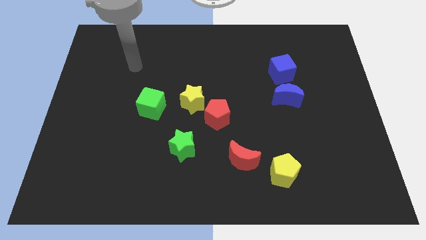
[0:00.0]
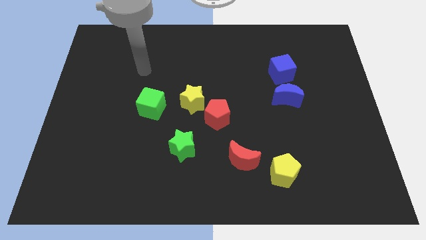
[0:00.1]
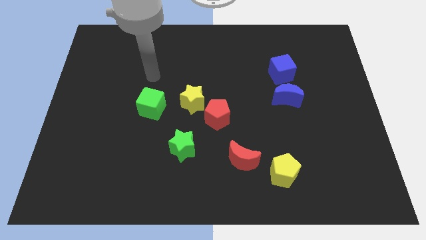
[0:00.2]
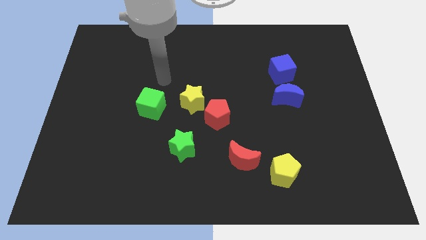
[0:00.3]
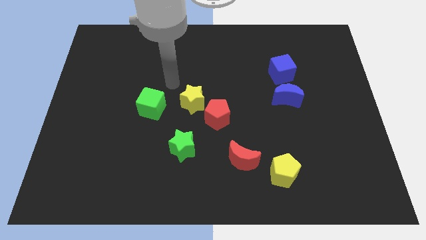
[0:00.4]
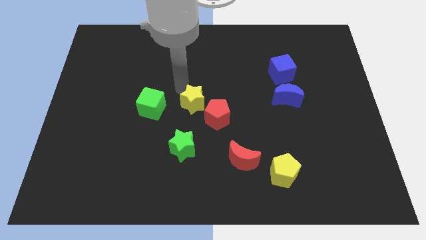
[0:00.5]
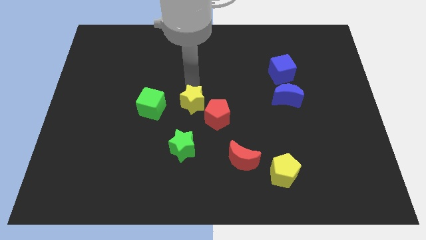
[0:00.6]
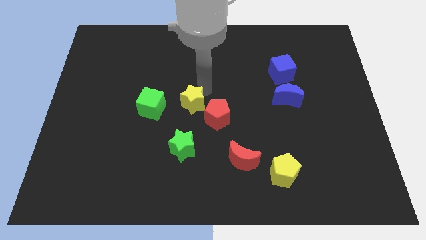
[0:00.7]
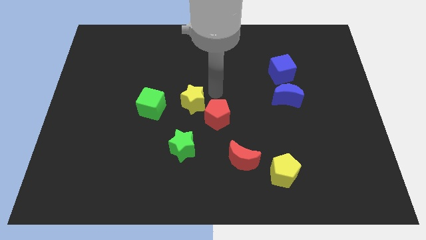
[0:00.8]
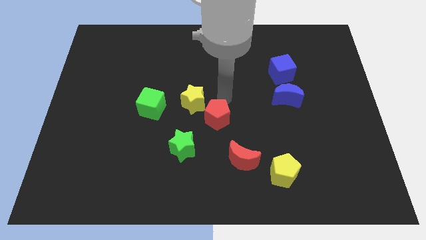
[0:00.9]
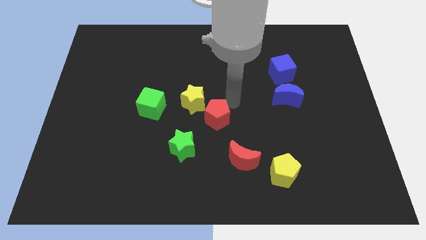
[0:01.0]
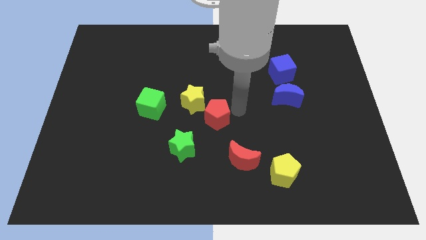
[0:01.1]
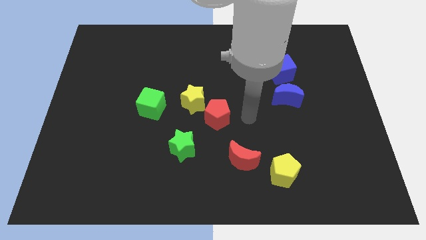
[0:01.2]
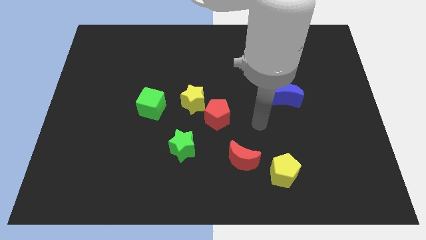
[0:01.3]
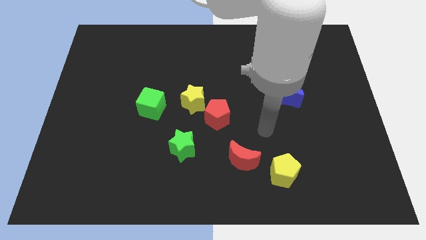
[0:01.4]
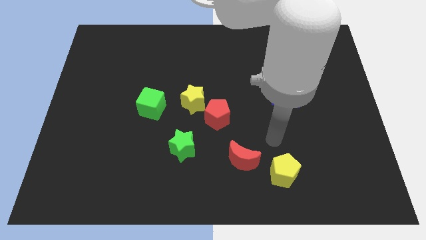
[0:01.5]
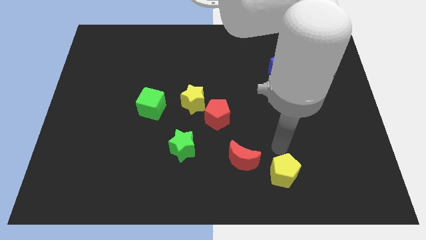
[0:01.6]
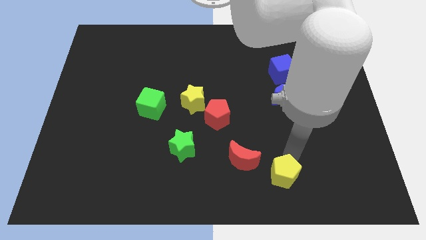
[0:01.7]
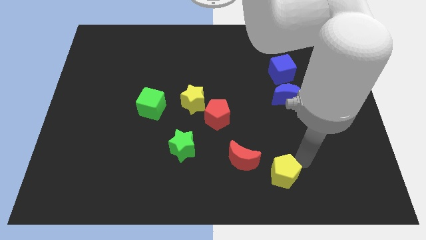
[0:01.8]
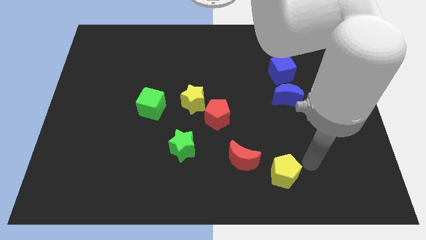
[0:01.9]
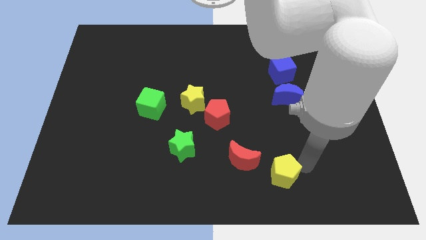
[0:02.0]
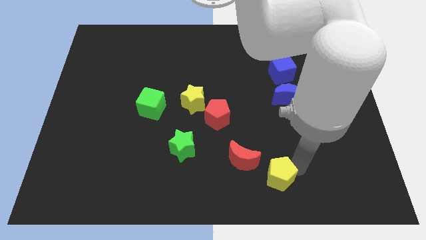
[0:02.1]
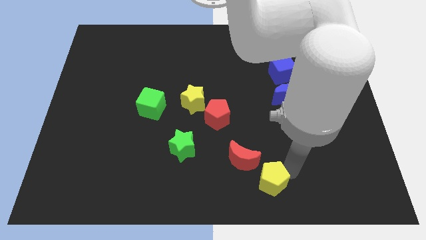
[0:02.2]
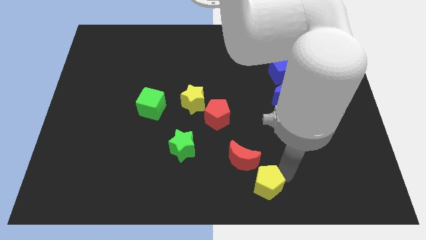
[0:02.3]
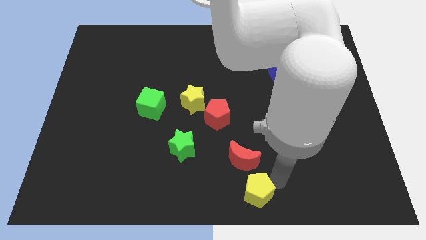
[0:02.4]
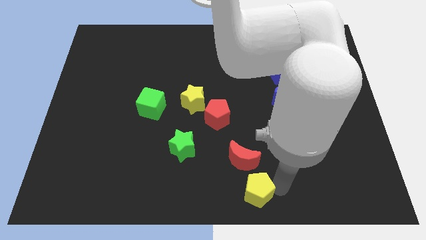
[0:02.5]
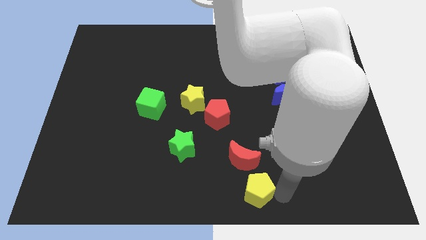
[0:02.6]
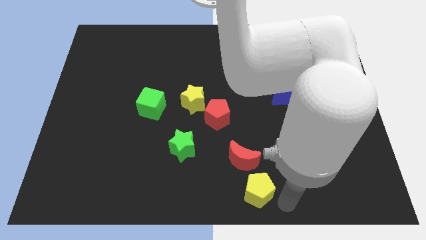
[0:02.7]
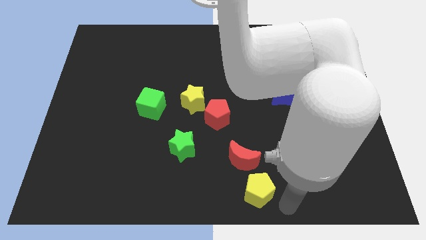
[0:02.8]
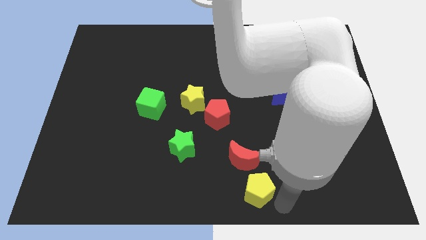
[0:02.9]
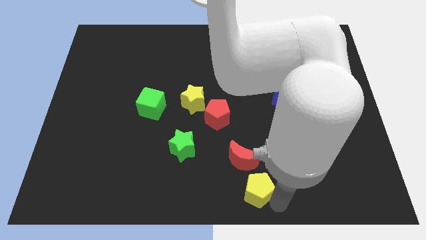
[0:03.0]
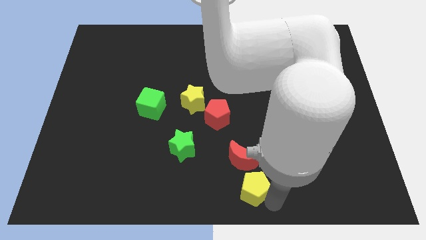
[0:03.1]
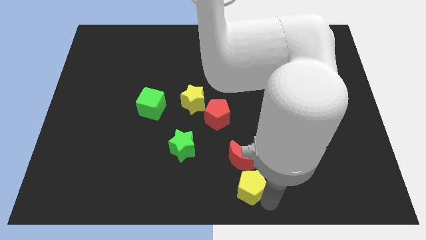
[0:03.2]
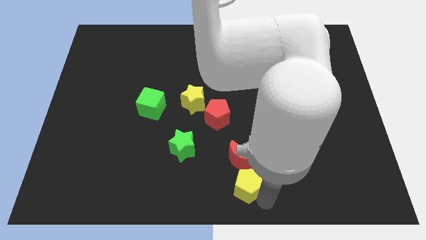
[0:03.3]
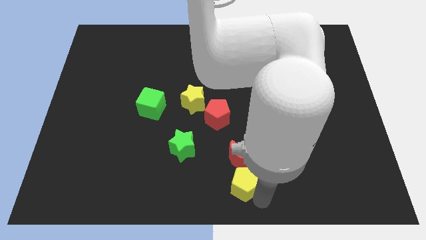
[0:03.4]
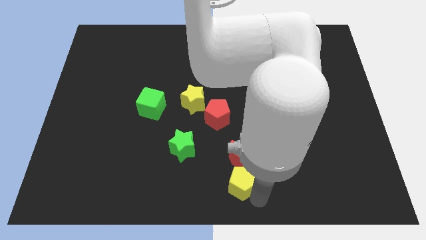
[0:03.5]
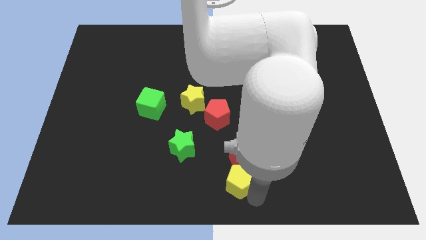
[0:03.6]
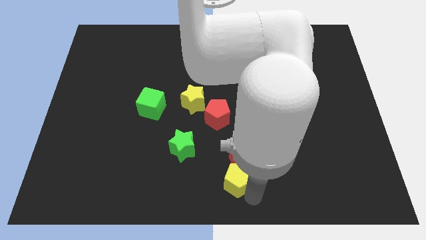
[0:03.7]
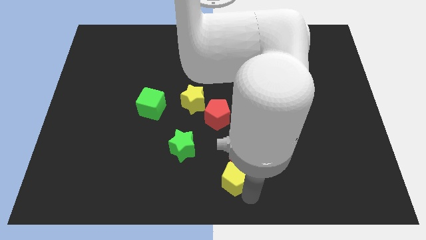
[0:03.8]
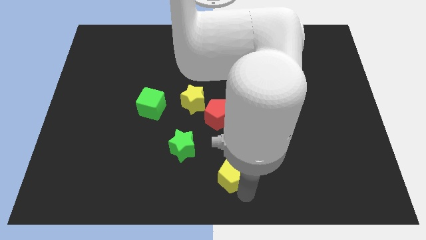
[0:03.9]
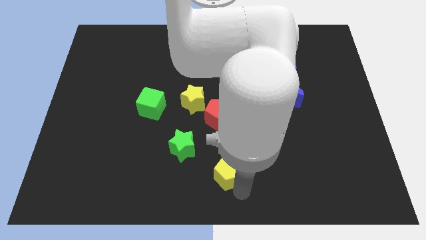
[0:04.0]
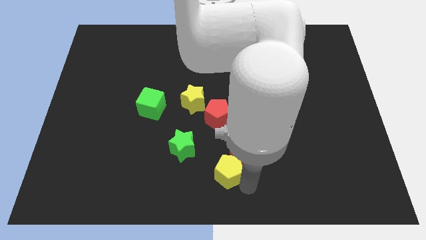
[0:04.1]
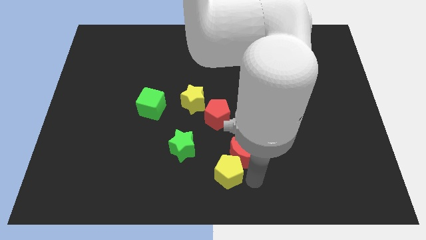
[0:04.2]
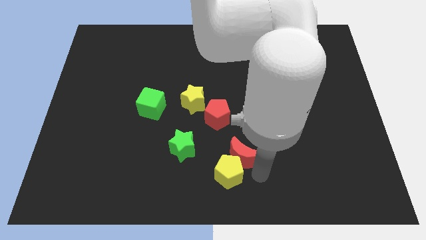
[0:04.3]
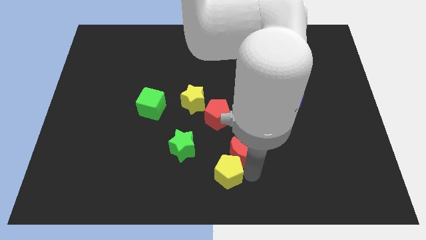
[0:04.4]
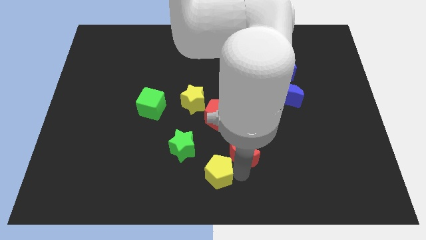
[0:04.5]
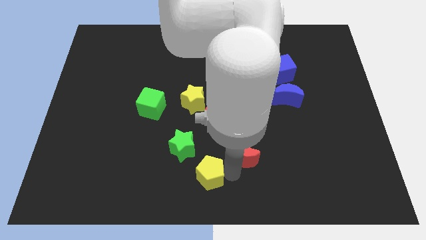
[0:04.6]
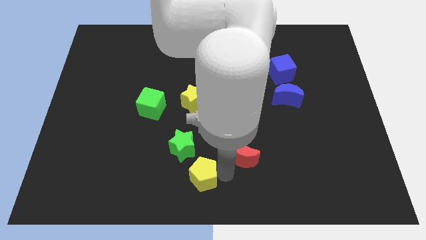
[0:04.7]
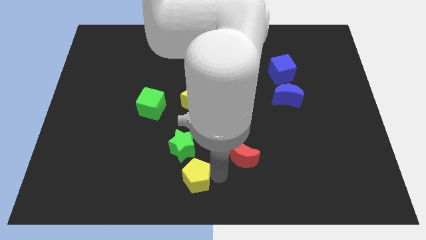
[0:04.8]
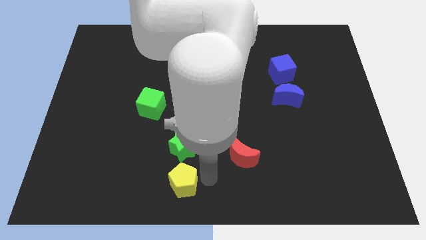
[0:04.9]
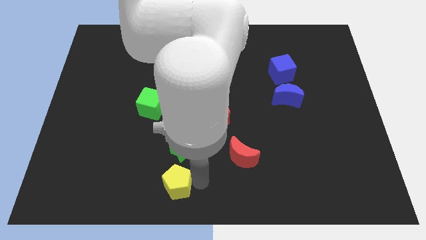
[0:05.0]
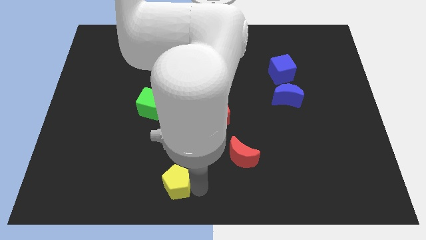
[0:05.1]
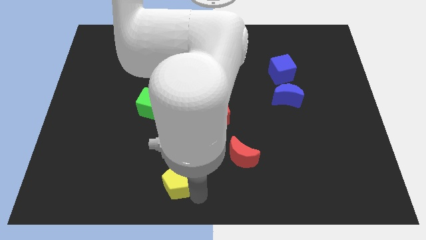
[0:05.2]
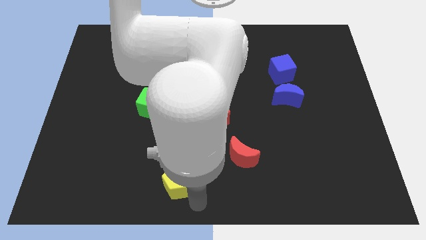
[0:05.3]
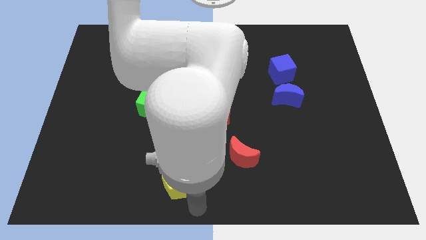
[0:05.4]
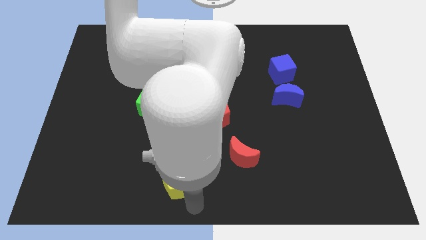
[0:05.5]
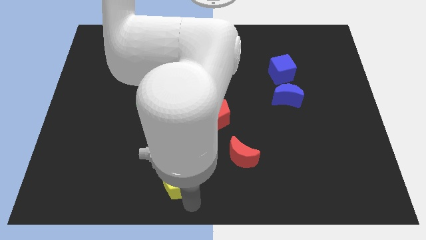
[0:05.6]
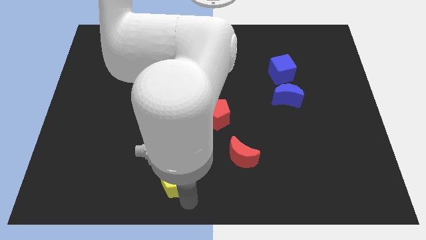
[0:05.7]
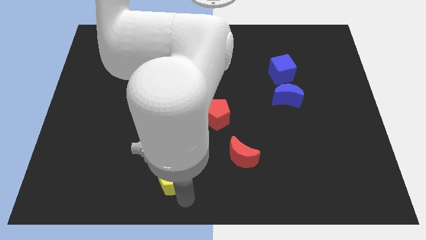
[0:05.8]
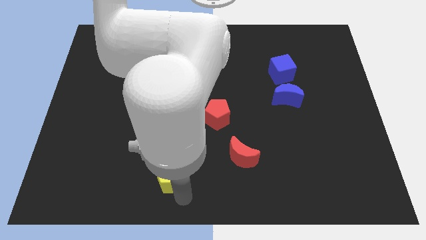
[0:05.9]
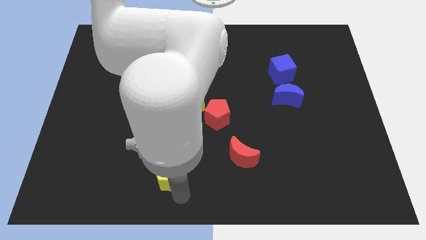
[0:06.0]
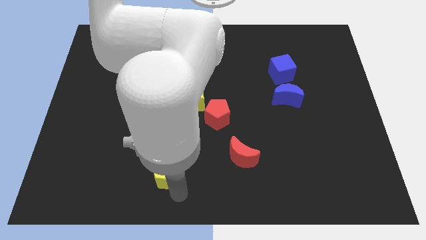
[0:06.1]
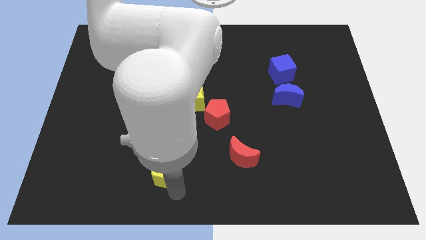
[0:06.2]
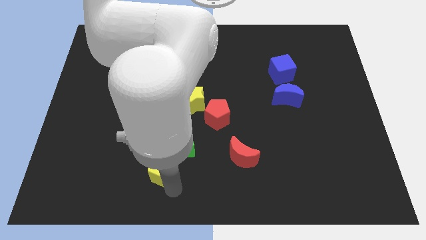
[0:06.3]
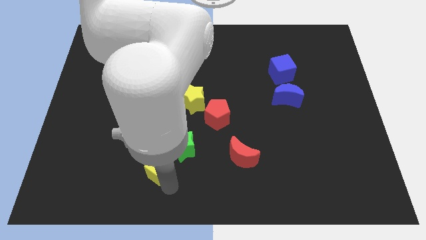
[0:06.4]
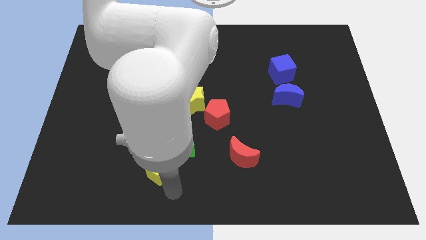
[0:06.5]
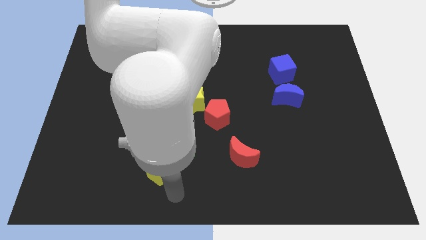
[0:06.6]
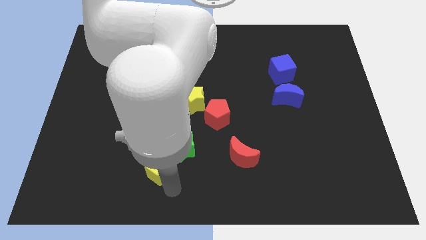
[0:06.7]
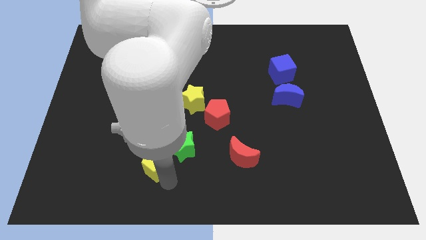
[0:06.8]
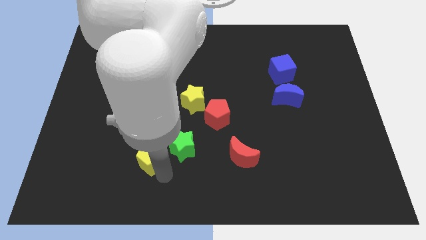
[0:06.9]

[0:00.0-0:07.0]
slide the yellow pentagon to the bottom of the green cube
